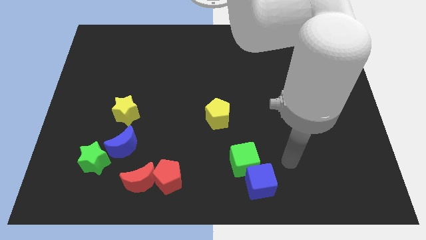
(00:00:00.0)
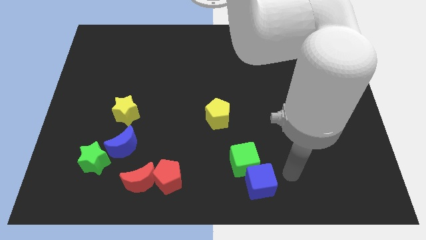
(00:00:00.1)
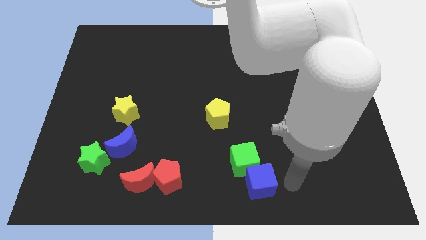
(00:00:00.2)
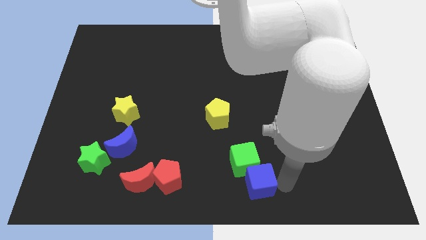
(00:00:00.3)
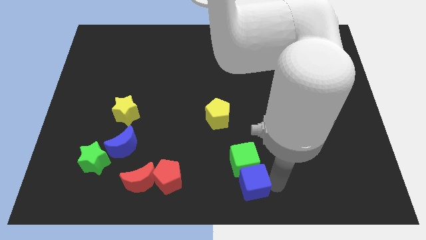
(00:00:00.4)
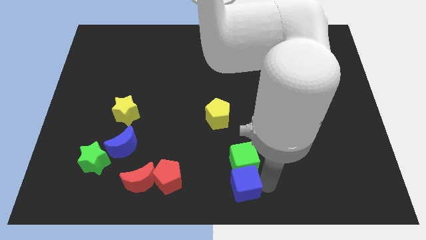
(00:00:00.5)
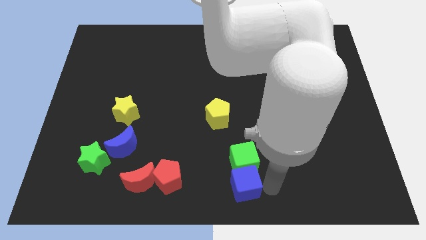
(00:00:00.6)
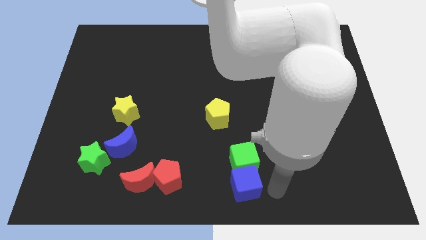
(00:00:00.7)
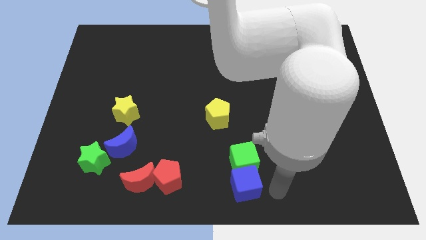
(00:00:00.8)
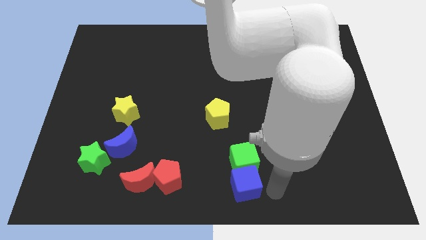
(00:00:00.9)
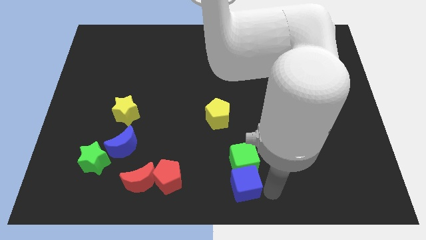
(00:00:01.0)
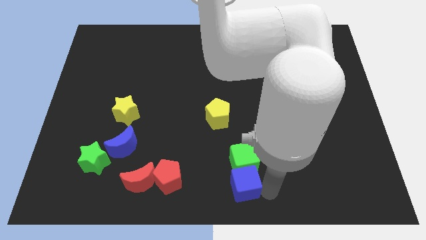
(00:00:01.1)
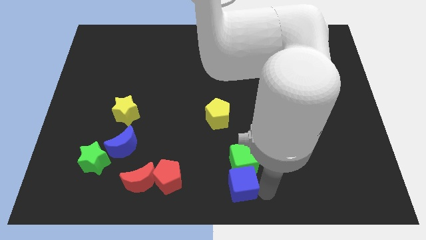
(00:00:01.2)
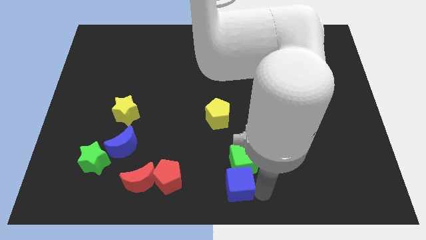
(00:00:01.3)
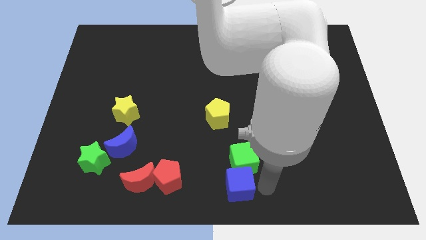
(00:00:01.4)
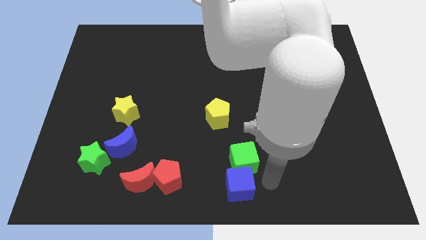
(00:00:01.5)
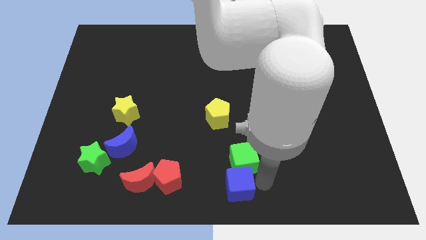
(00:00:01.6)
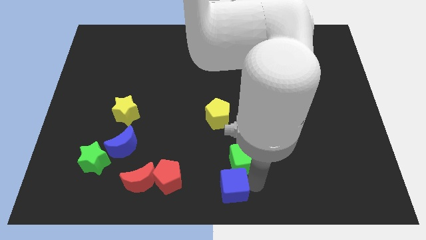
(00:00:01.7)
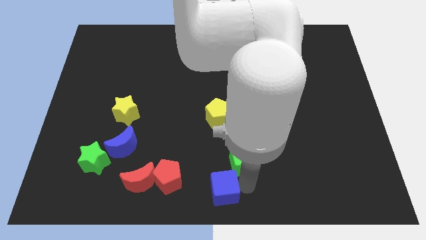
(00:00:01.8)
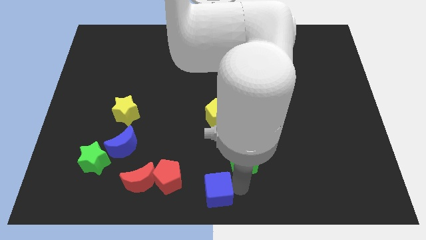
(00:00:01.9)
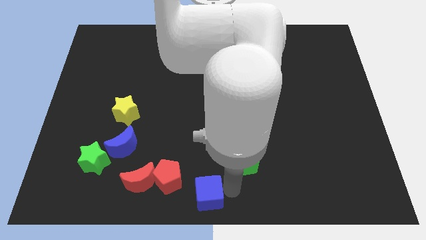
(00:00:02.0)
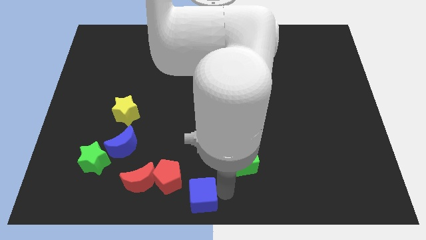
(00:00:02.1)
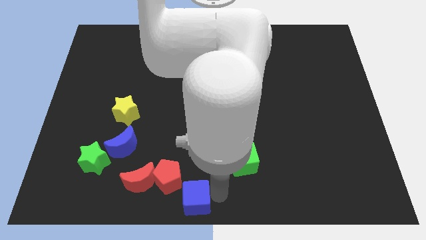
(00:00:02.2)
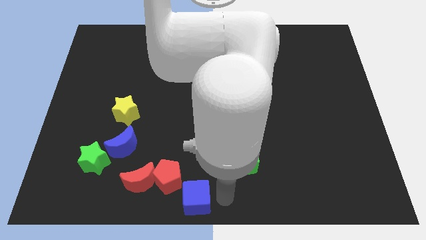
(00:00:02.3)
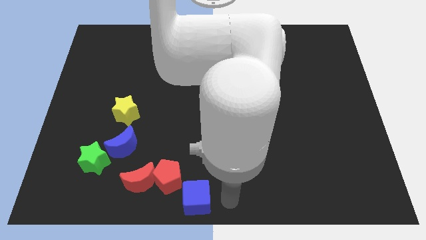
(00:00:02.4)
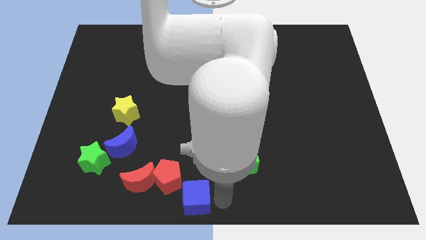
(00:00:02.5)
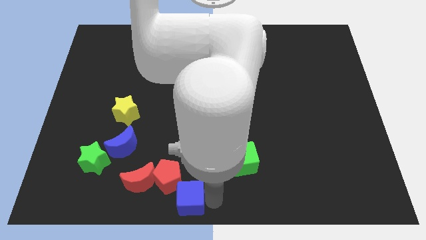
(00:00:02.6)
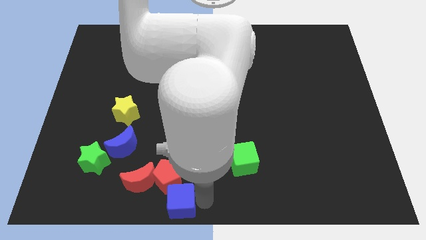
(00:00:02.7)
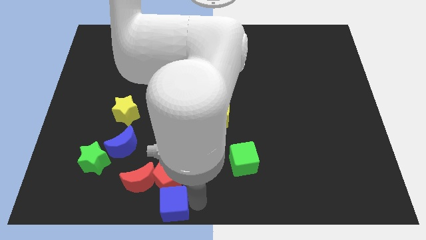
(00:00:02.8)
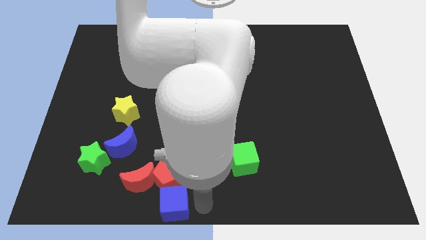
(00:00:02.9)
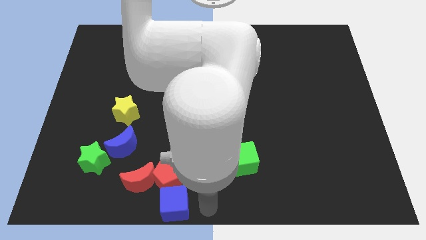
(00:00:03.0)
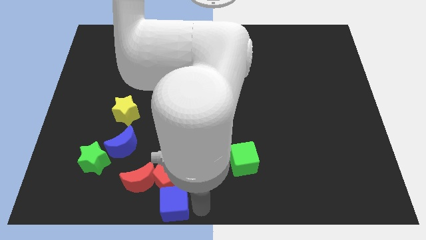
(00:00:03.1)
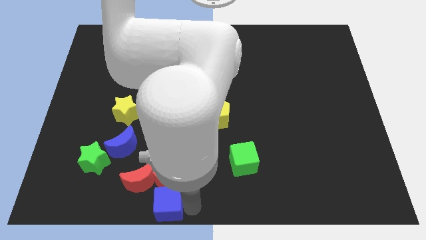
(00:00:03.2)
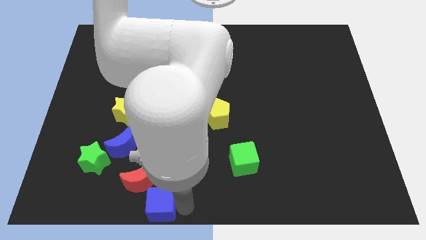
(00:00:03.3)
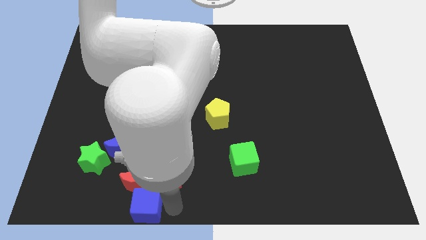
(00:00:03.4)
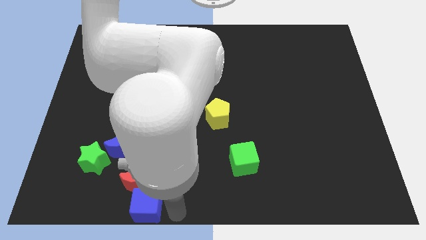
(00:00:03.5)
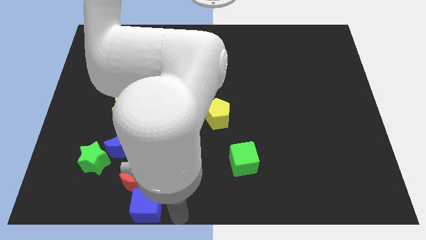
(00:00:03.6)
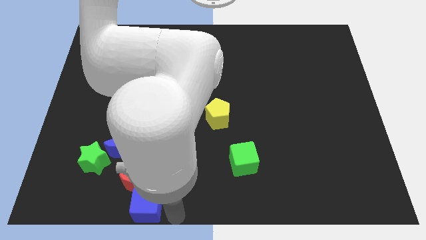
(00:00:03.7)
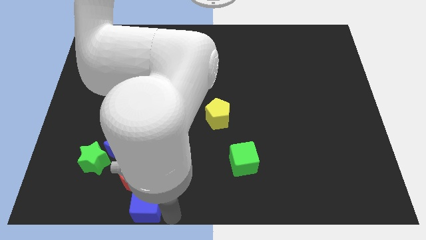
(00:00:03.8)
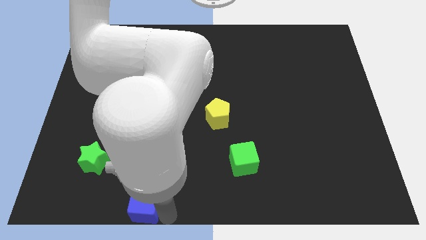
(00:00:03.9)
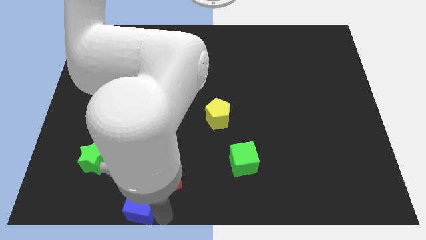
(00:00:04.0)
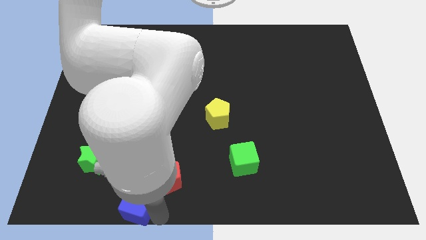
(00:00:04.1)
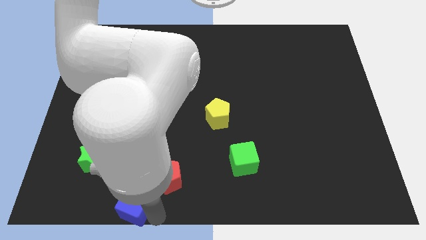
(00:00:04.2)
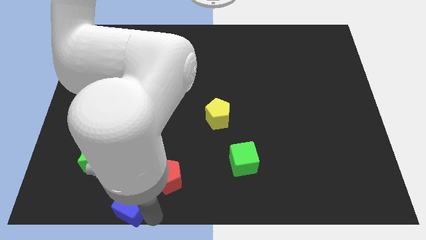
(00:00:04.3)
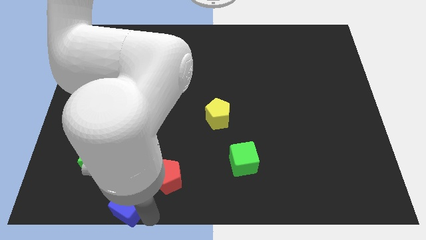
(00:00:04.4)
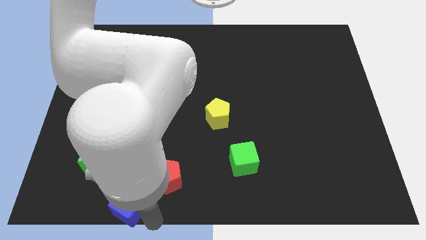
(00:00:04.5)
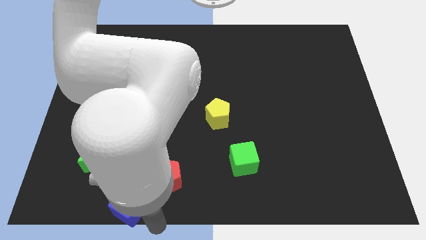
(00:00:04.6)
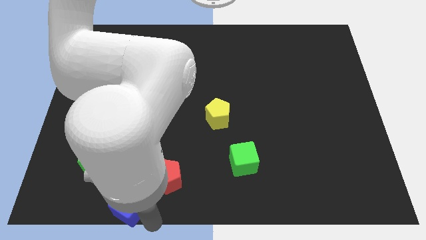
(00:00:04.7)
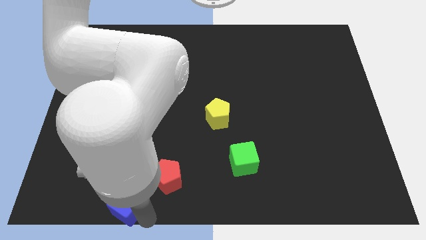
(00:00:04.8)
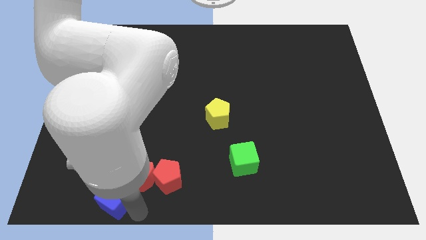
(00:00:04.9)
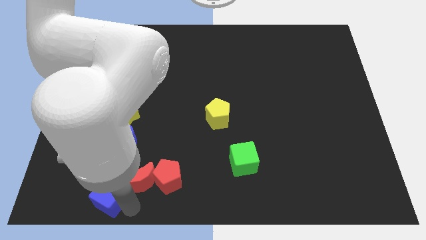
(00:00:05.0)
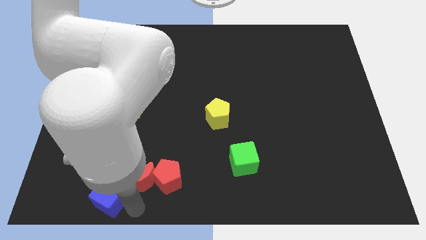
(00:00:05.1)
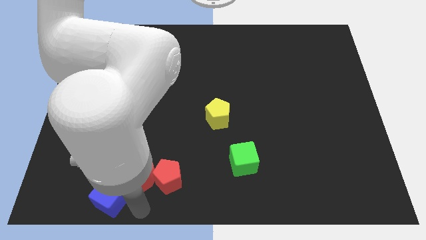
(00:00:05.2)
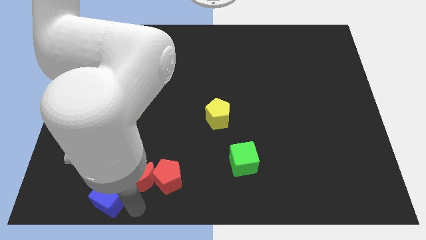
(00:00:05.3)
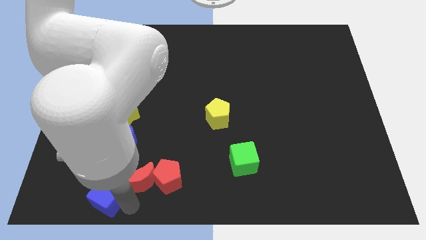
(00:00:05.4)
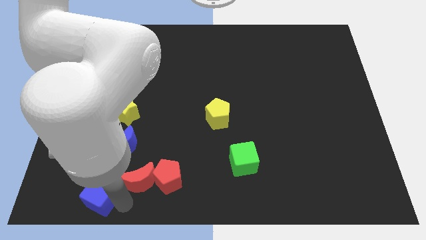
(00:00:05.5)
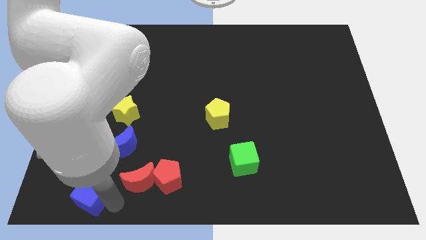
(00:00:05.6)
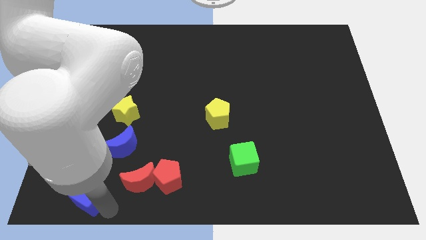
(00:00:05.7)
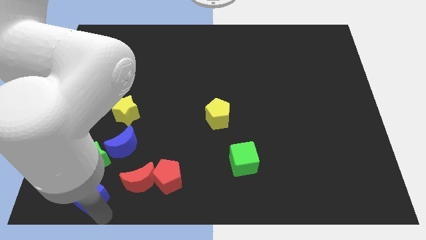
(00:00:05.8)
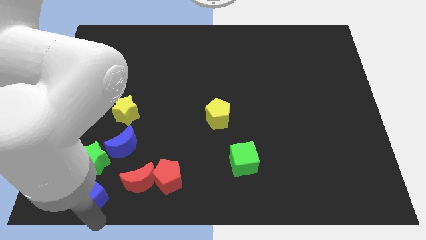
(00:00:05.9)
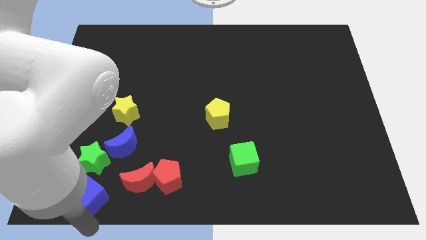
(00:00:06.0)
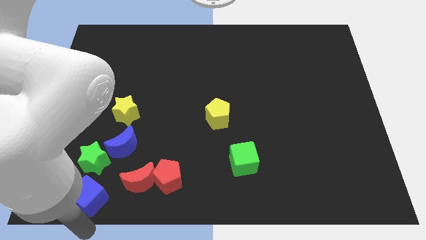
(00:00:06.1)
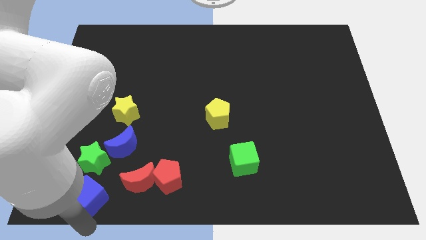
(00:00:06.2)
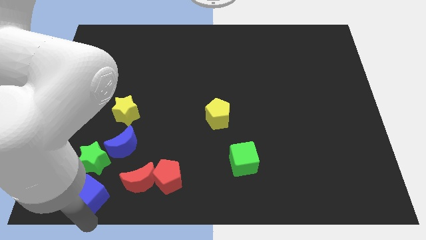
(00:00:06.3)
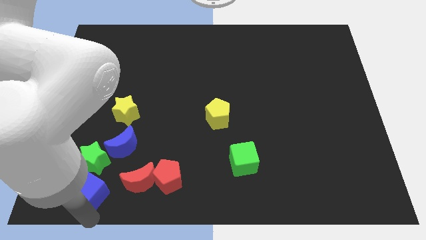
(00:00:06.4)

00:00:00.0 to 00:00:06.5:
push the blue cube diagonally down and to the left of the blue moon

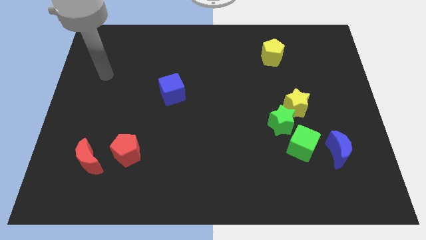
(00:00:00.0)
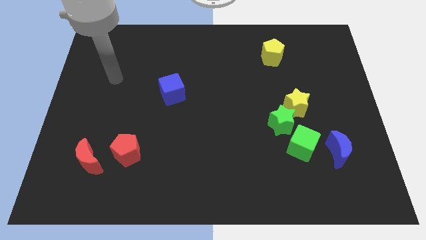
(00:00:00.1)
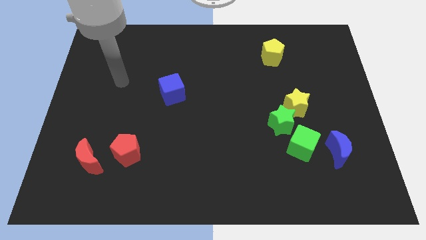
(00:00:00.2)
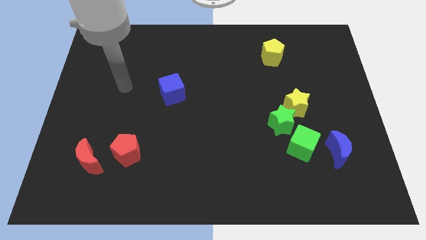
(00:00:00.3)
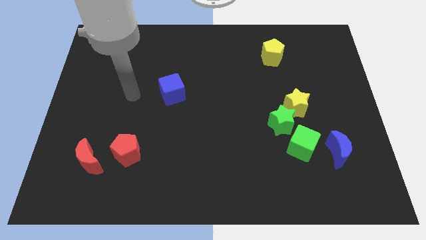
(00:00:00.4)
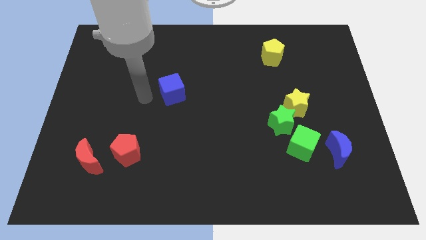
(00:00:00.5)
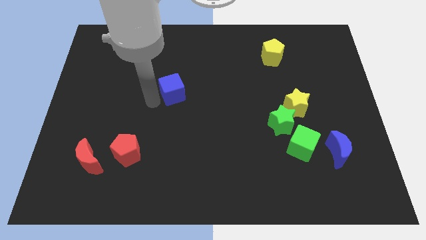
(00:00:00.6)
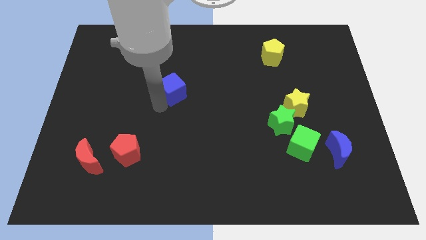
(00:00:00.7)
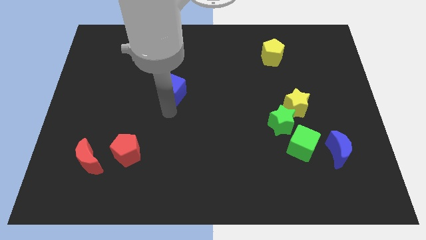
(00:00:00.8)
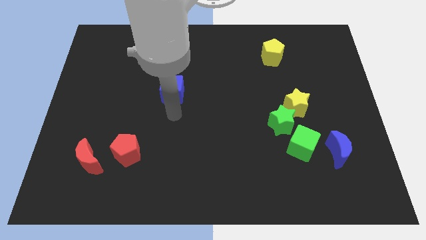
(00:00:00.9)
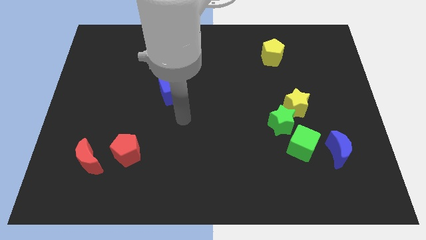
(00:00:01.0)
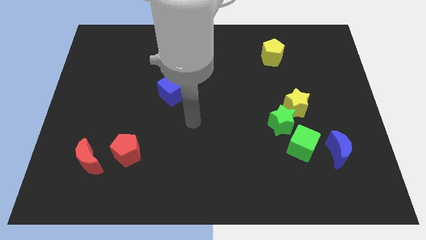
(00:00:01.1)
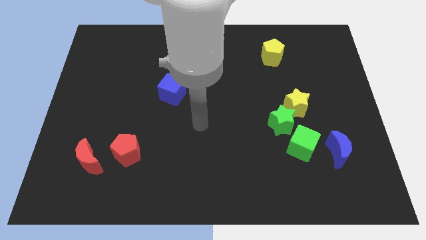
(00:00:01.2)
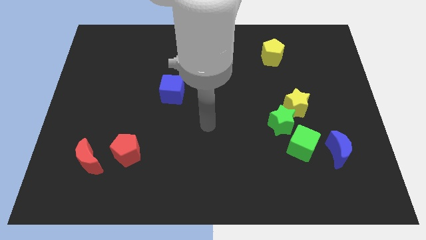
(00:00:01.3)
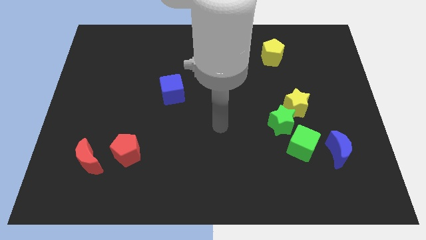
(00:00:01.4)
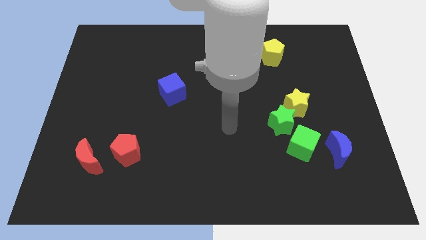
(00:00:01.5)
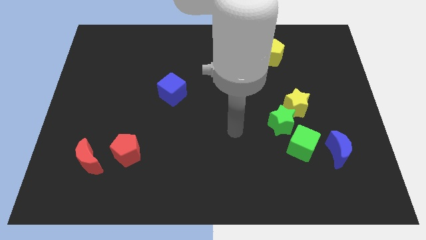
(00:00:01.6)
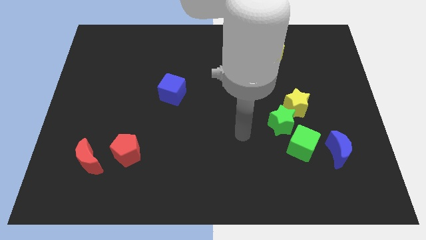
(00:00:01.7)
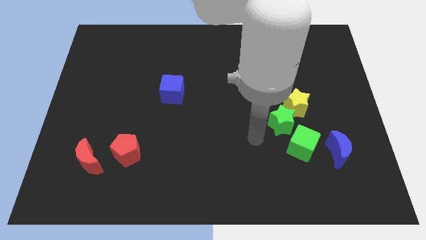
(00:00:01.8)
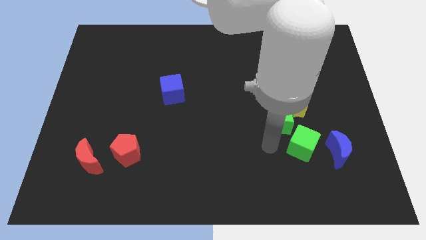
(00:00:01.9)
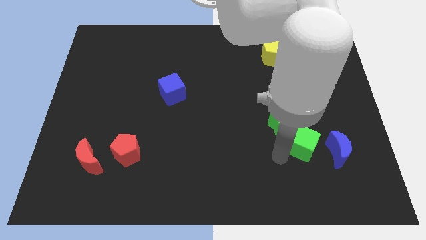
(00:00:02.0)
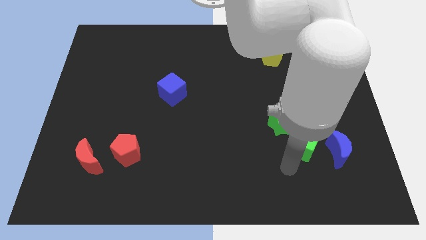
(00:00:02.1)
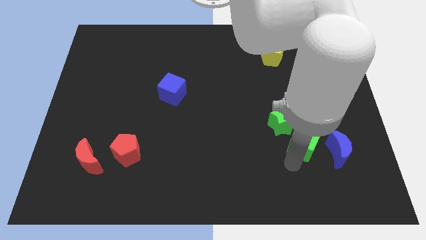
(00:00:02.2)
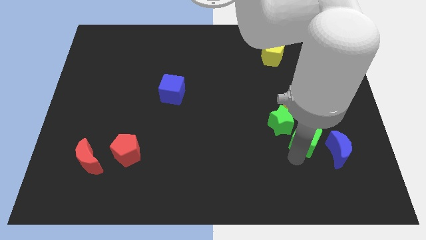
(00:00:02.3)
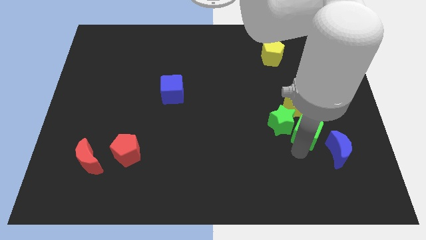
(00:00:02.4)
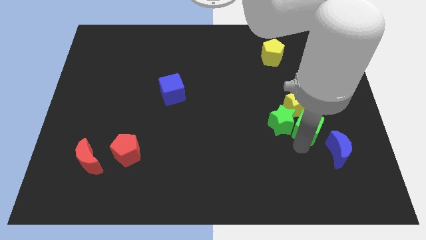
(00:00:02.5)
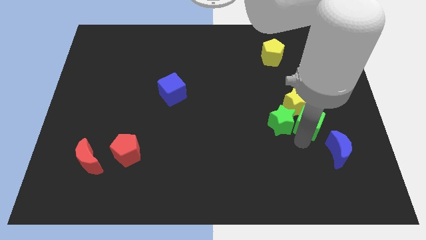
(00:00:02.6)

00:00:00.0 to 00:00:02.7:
put the green cube diagonally up and to the right of the green star
